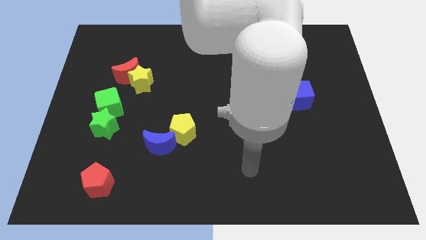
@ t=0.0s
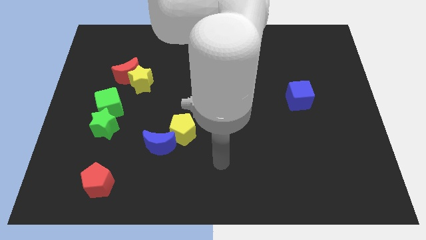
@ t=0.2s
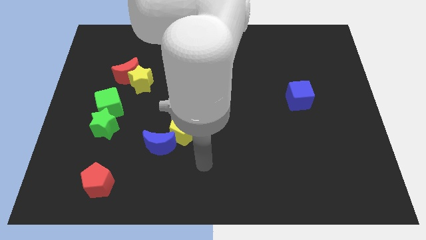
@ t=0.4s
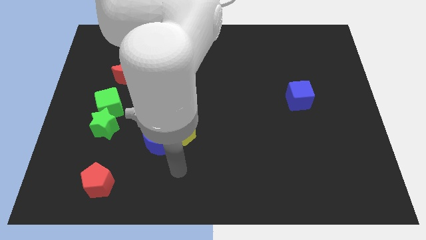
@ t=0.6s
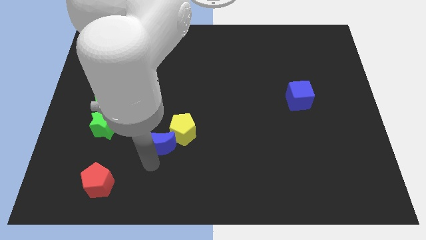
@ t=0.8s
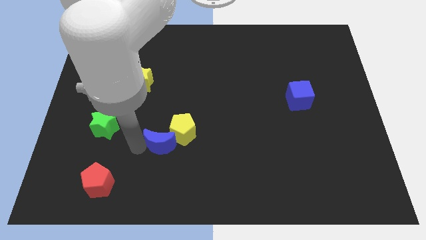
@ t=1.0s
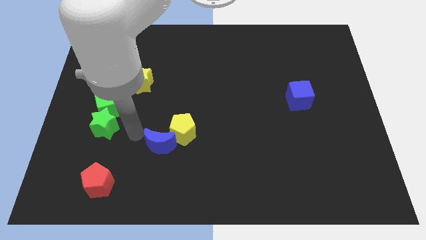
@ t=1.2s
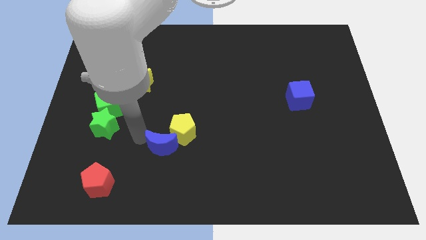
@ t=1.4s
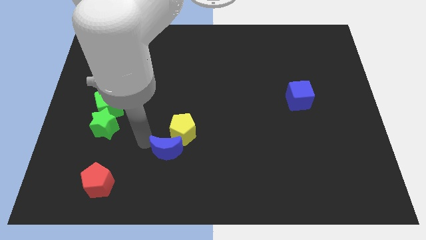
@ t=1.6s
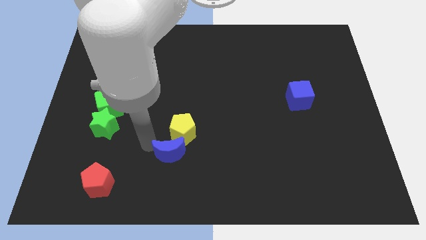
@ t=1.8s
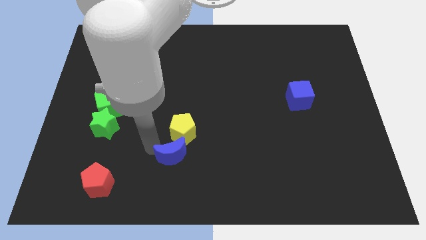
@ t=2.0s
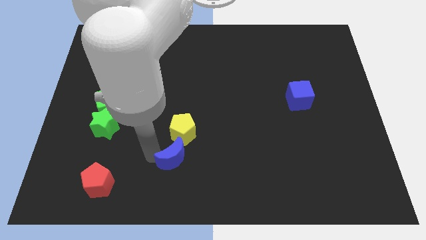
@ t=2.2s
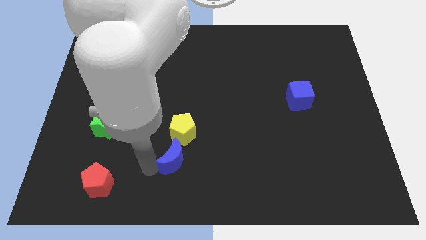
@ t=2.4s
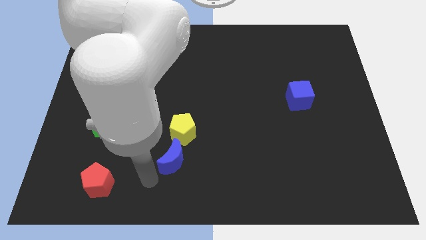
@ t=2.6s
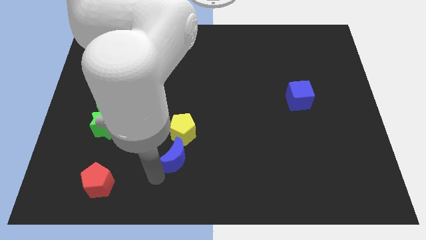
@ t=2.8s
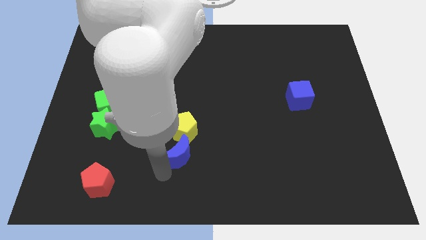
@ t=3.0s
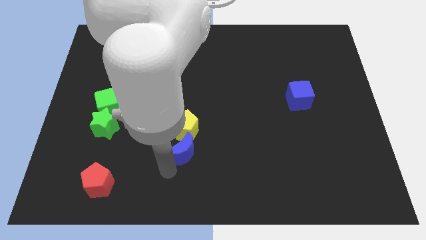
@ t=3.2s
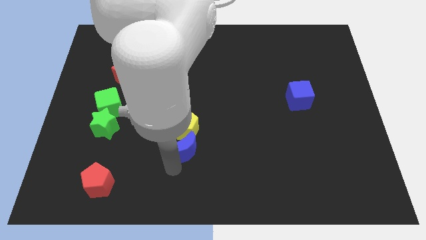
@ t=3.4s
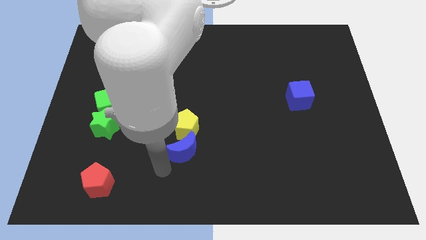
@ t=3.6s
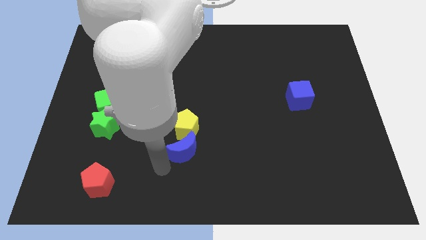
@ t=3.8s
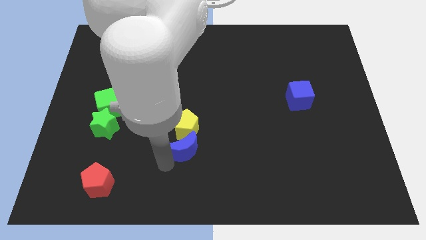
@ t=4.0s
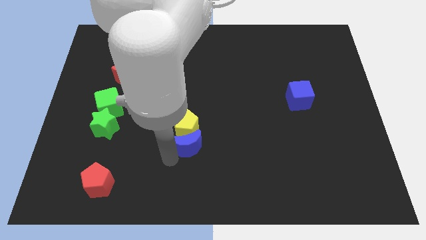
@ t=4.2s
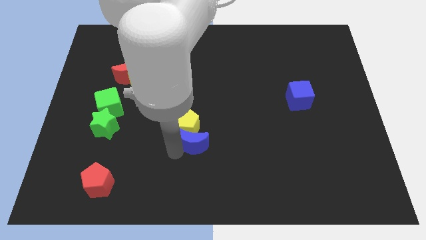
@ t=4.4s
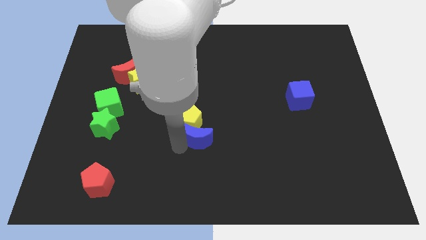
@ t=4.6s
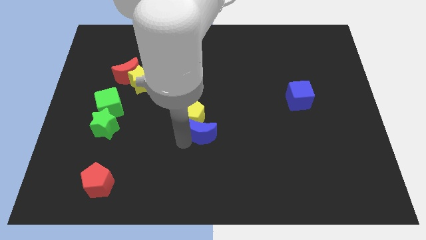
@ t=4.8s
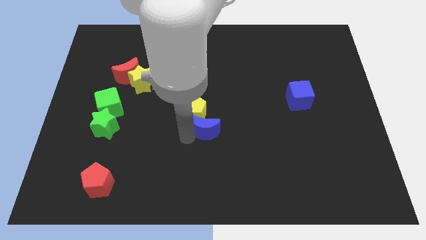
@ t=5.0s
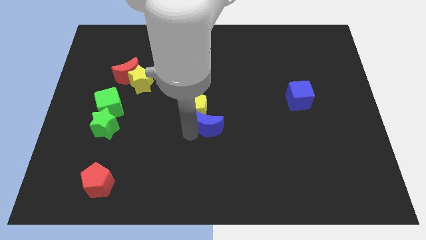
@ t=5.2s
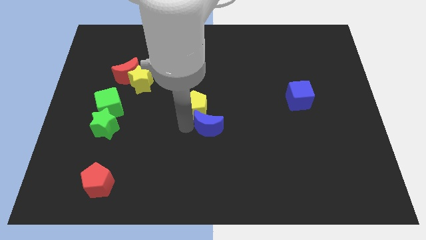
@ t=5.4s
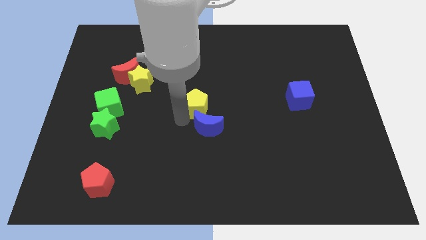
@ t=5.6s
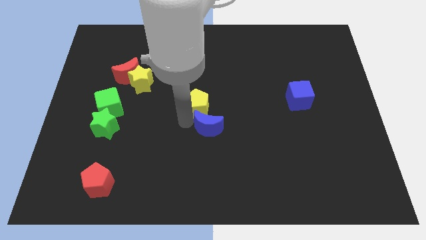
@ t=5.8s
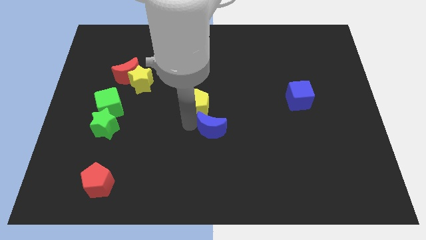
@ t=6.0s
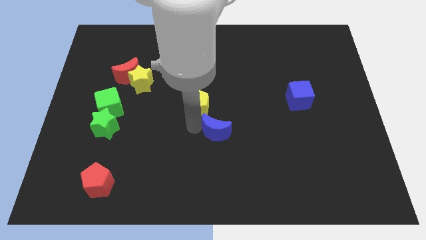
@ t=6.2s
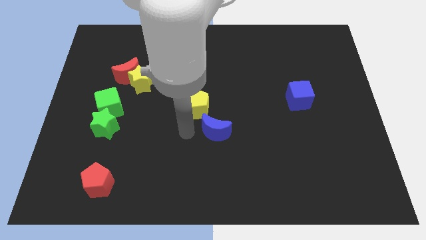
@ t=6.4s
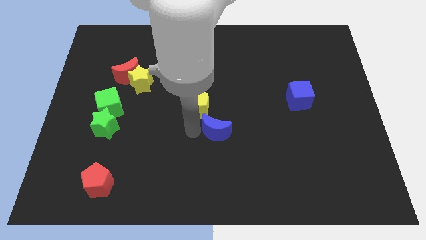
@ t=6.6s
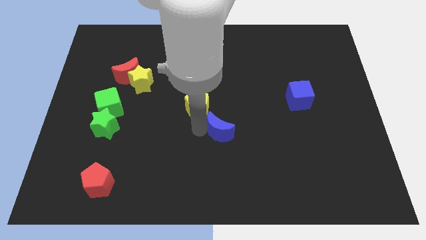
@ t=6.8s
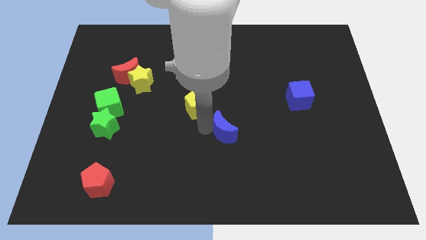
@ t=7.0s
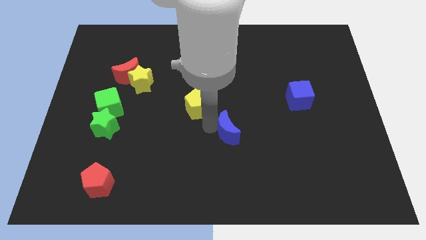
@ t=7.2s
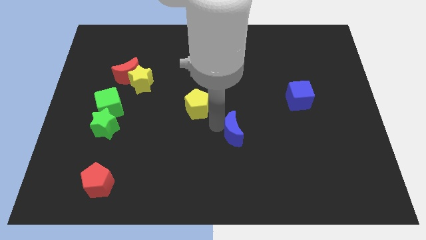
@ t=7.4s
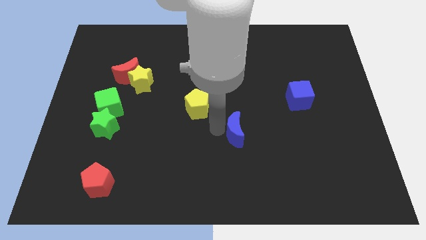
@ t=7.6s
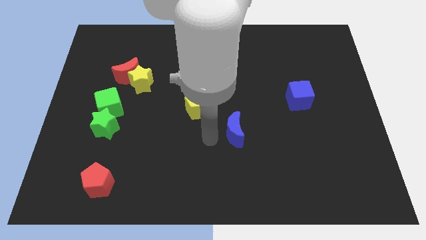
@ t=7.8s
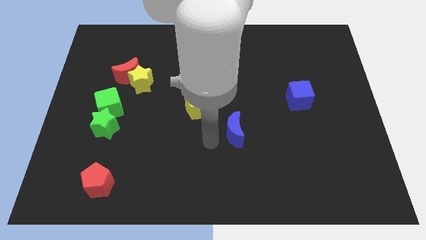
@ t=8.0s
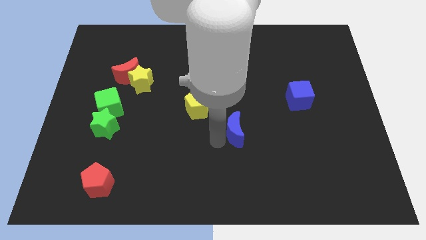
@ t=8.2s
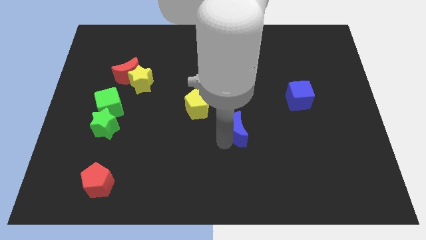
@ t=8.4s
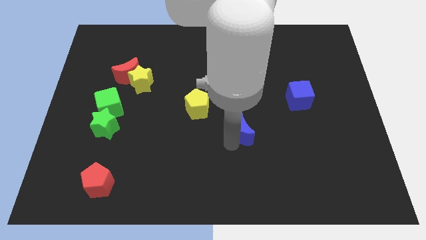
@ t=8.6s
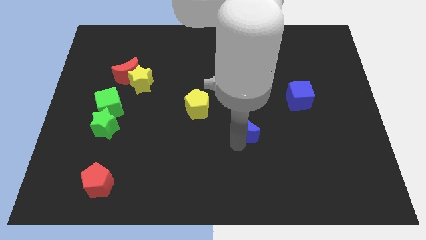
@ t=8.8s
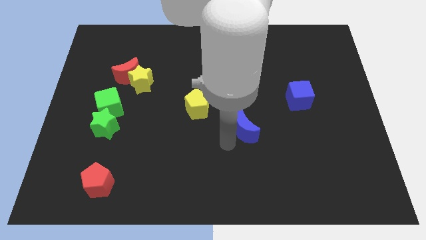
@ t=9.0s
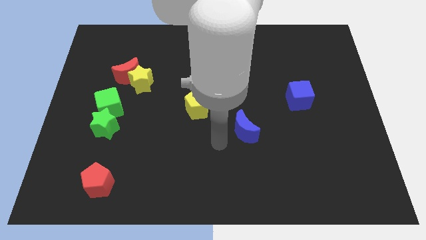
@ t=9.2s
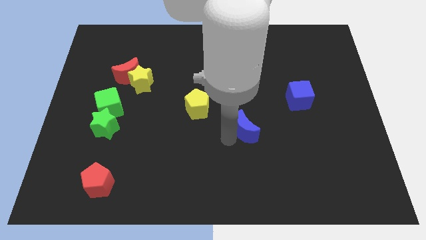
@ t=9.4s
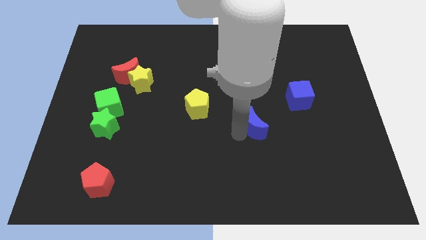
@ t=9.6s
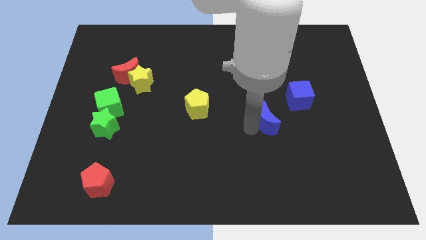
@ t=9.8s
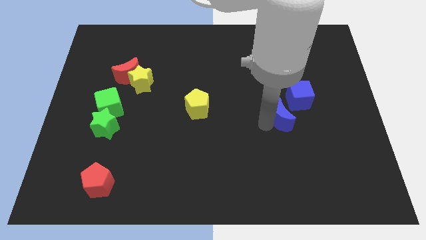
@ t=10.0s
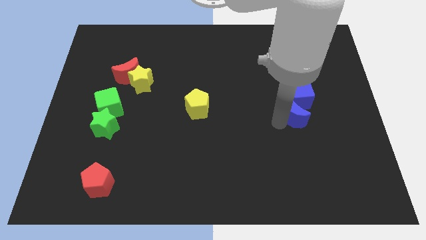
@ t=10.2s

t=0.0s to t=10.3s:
slide the blue moon close to the blue cube

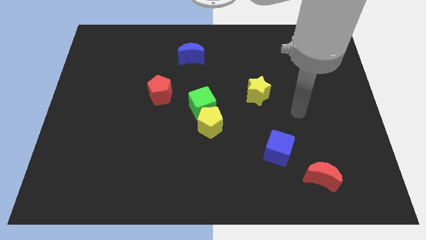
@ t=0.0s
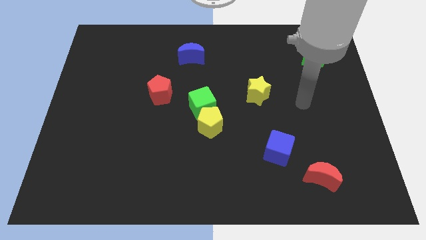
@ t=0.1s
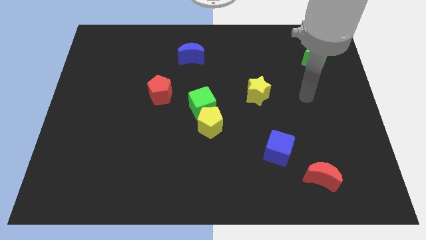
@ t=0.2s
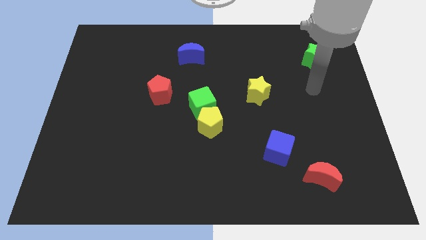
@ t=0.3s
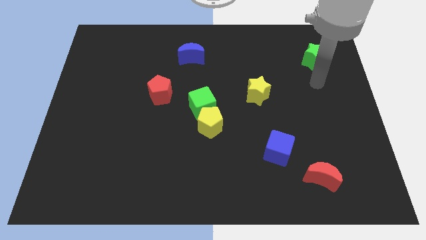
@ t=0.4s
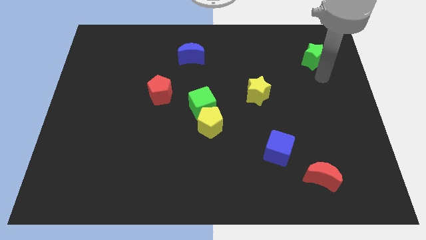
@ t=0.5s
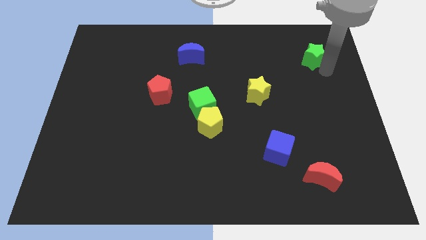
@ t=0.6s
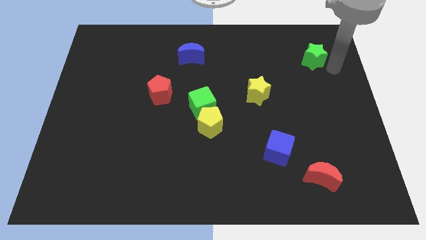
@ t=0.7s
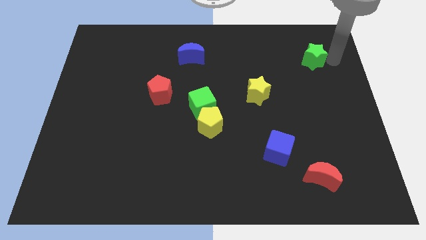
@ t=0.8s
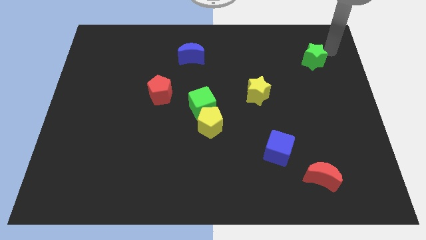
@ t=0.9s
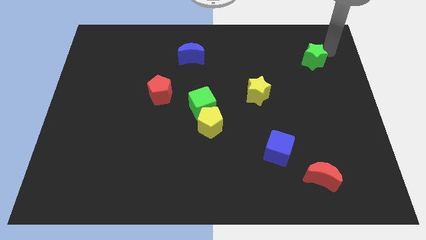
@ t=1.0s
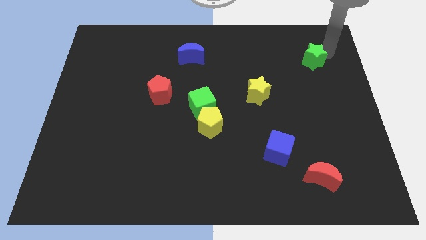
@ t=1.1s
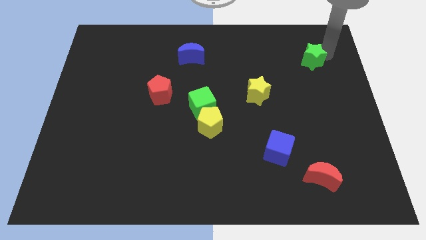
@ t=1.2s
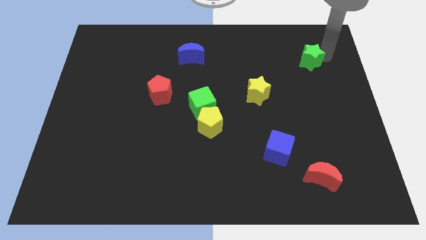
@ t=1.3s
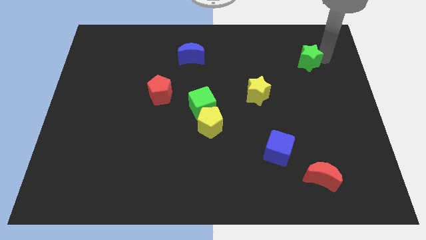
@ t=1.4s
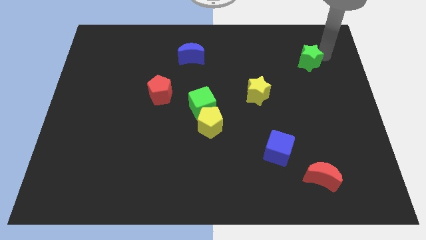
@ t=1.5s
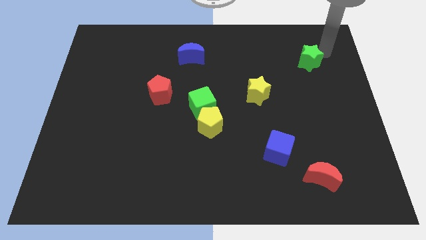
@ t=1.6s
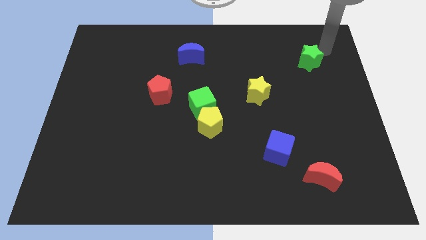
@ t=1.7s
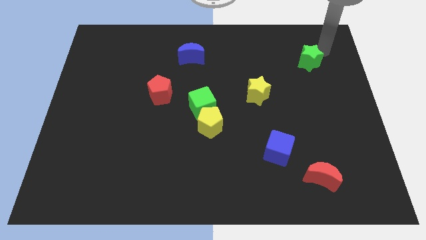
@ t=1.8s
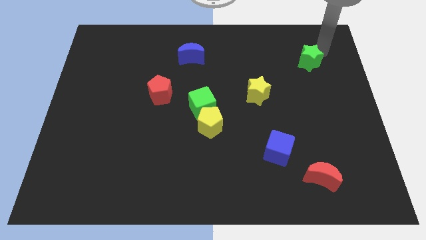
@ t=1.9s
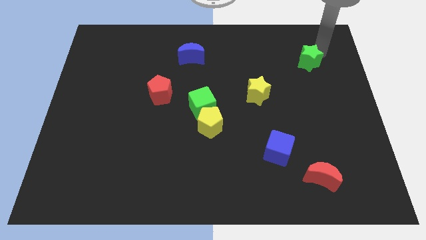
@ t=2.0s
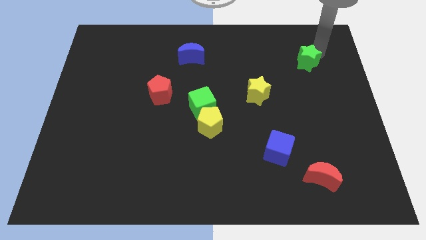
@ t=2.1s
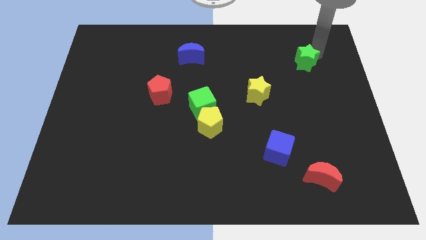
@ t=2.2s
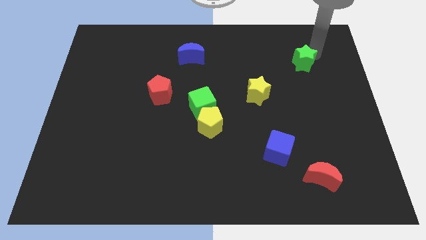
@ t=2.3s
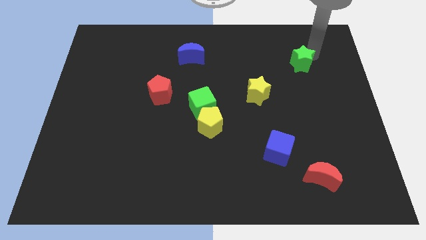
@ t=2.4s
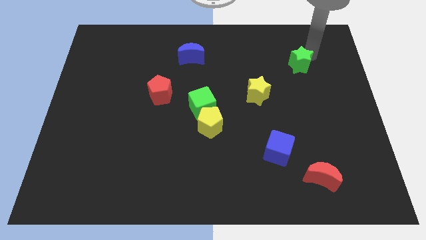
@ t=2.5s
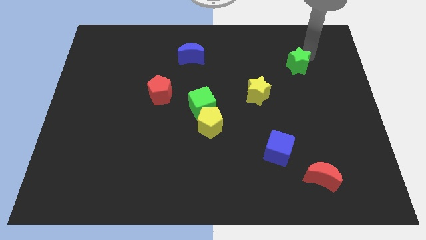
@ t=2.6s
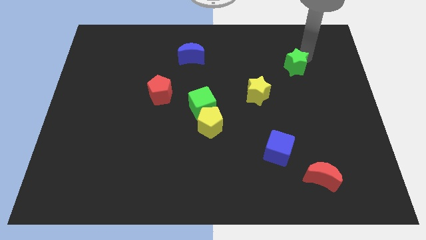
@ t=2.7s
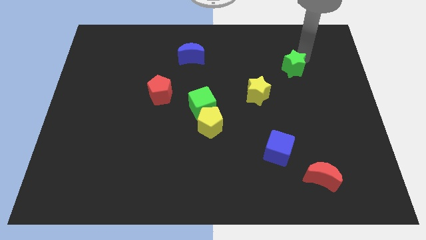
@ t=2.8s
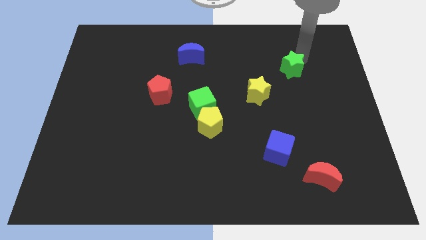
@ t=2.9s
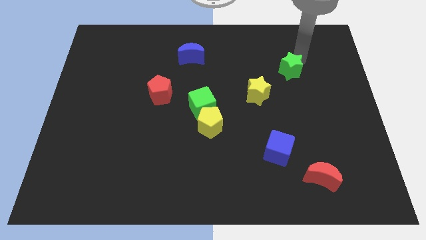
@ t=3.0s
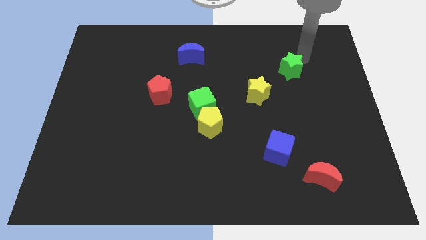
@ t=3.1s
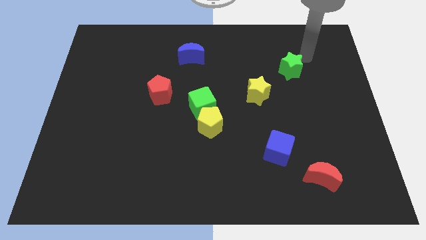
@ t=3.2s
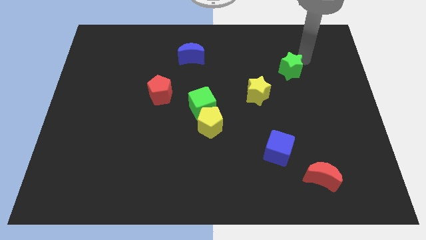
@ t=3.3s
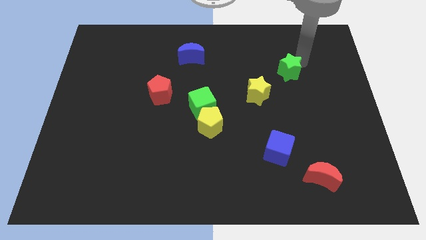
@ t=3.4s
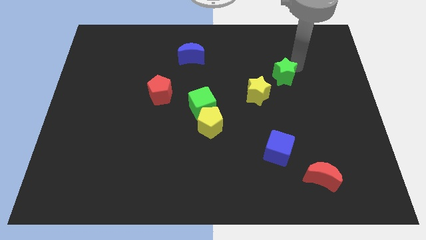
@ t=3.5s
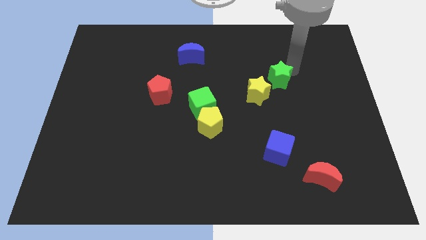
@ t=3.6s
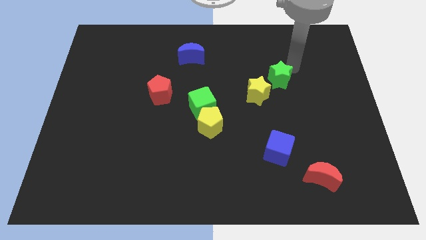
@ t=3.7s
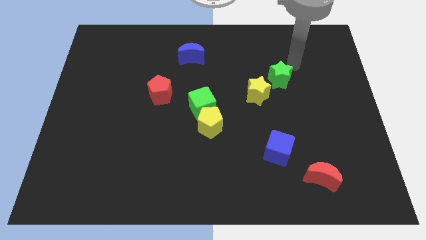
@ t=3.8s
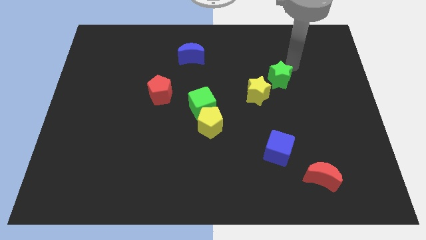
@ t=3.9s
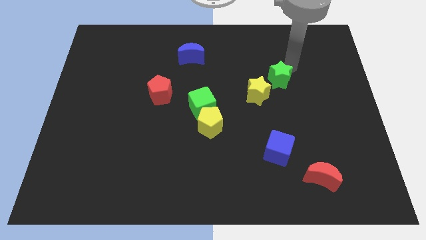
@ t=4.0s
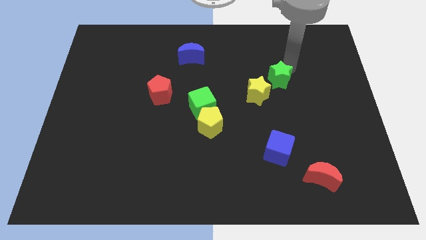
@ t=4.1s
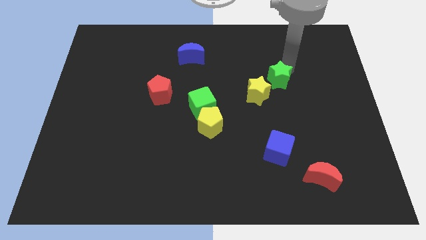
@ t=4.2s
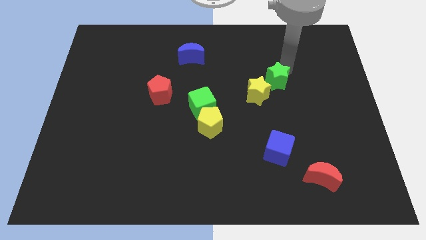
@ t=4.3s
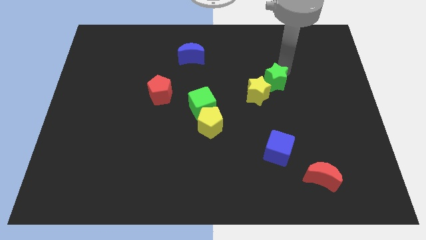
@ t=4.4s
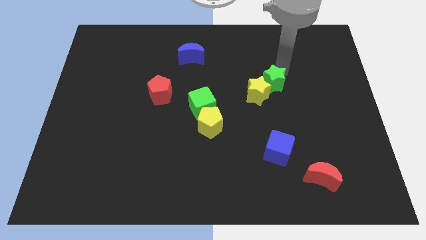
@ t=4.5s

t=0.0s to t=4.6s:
move the green star next to the yellow star
